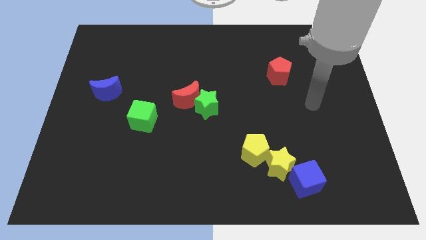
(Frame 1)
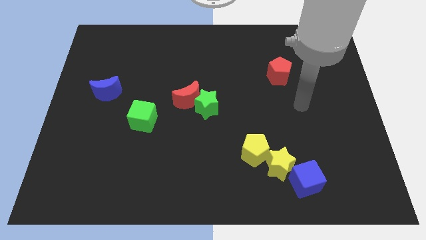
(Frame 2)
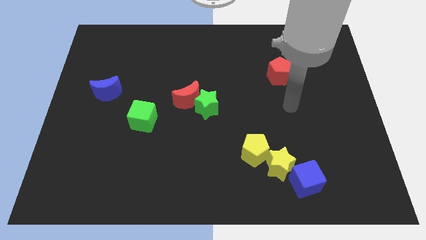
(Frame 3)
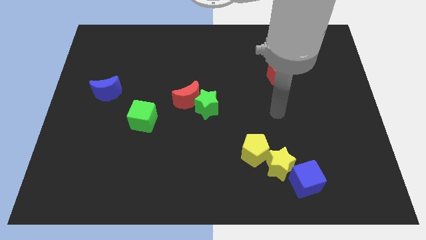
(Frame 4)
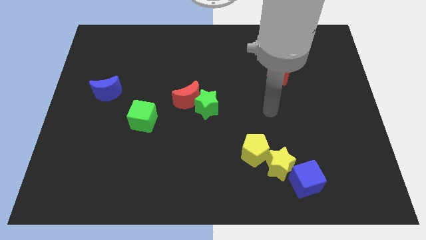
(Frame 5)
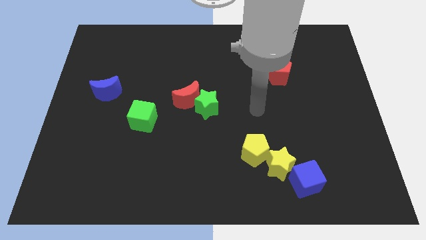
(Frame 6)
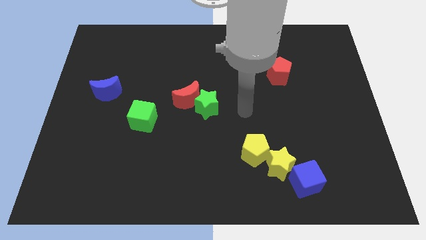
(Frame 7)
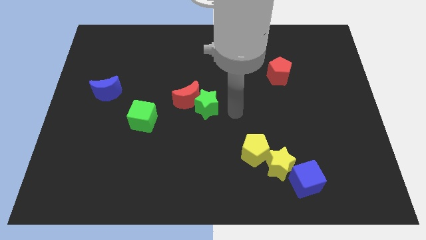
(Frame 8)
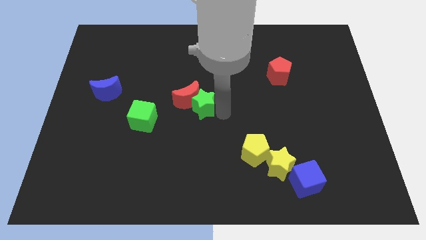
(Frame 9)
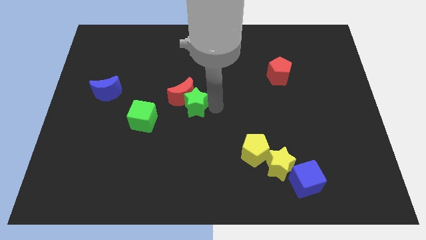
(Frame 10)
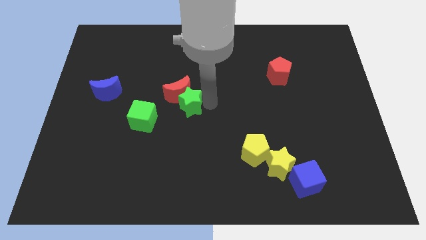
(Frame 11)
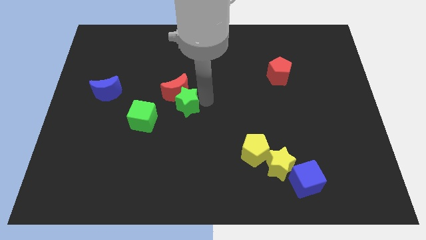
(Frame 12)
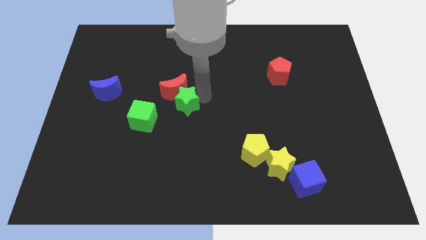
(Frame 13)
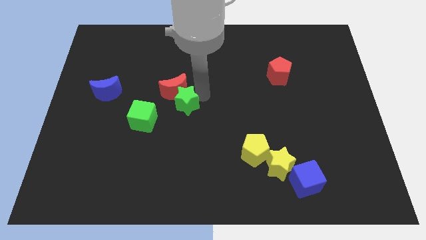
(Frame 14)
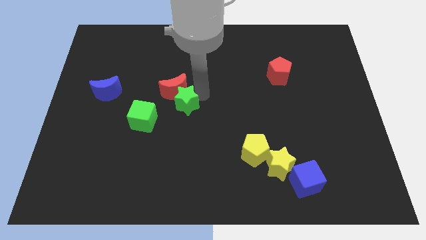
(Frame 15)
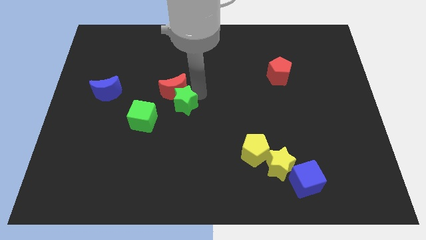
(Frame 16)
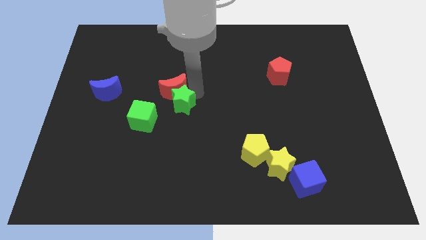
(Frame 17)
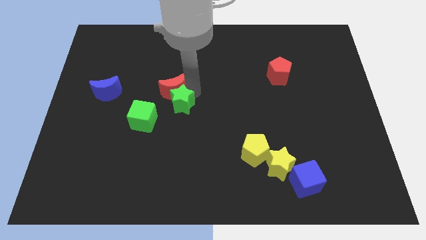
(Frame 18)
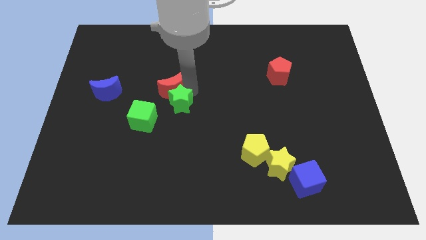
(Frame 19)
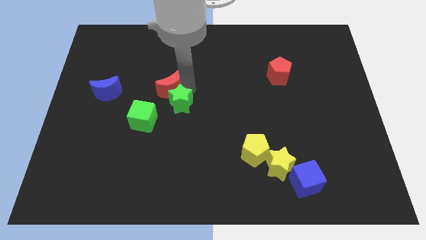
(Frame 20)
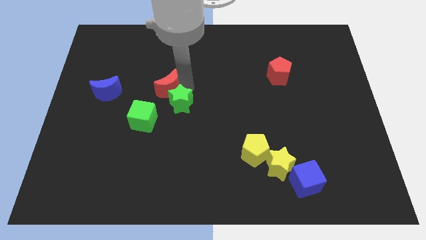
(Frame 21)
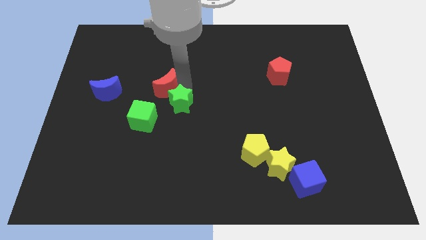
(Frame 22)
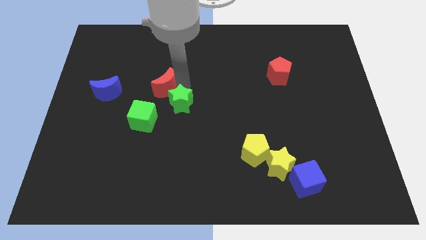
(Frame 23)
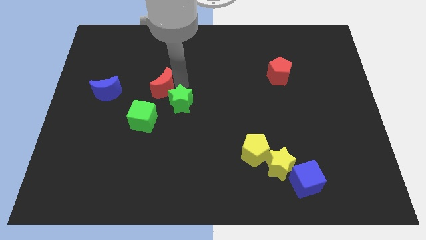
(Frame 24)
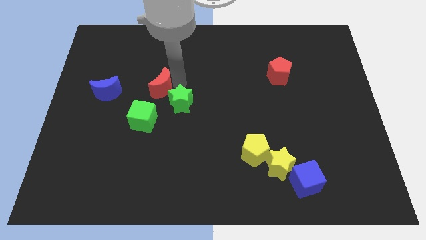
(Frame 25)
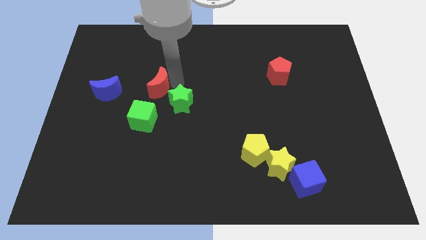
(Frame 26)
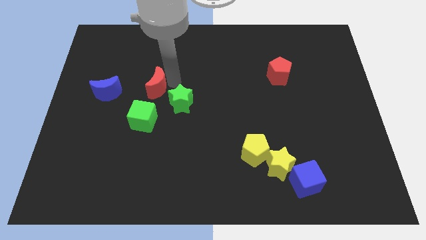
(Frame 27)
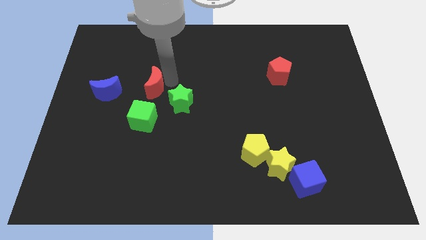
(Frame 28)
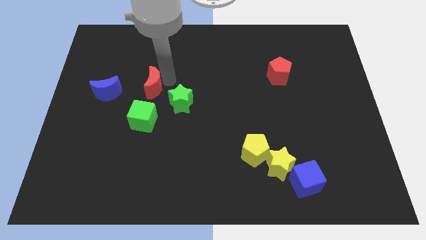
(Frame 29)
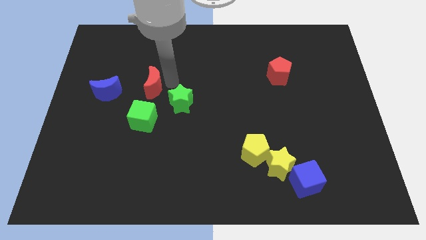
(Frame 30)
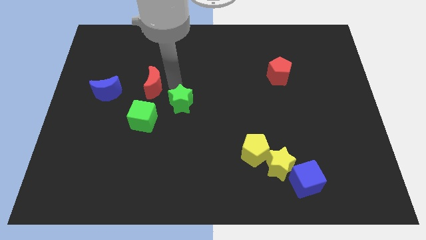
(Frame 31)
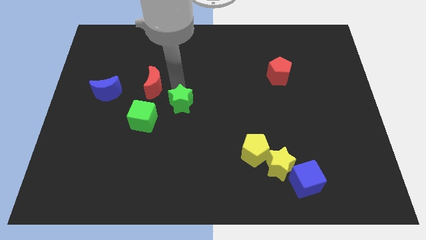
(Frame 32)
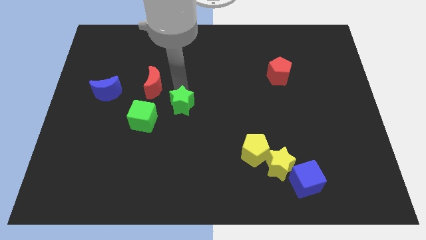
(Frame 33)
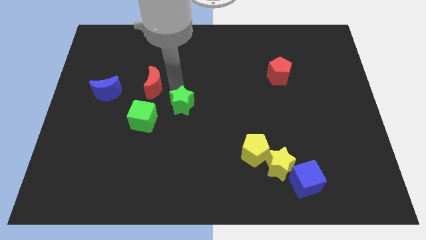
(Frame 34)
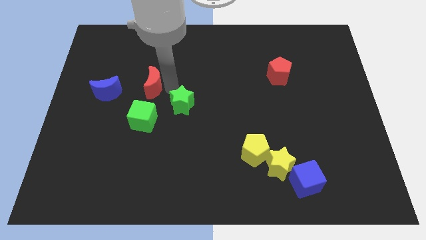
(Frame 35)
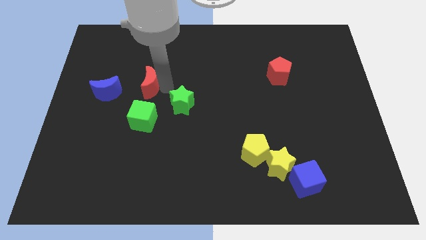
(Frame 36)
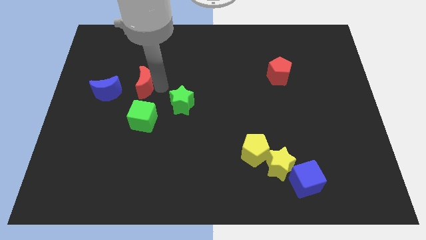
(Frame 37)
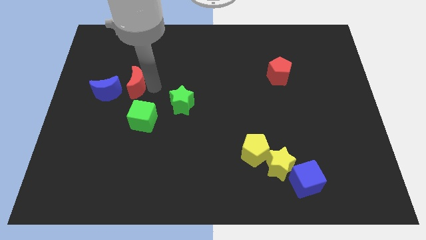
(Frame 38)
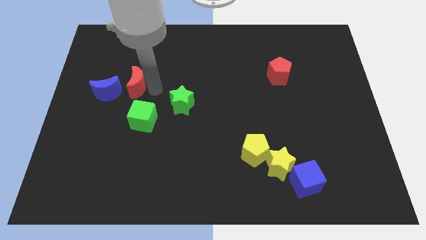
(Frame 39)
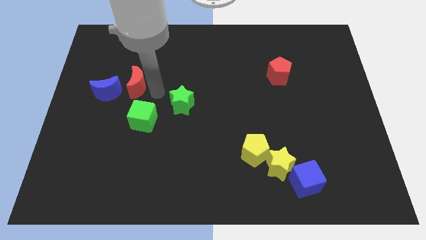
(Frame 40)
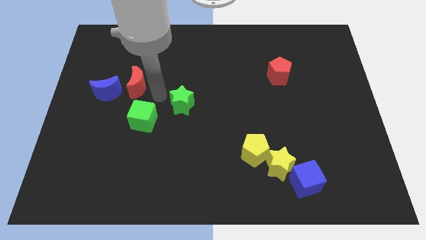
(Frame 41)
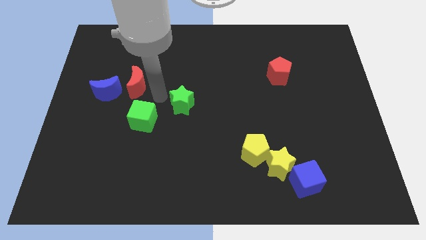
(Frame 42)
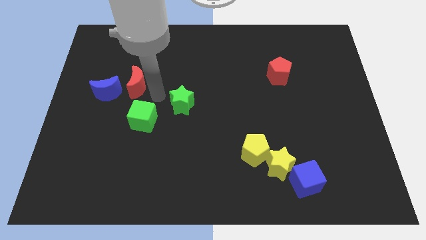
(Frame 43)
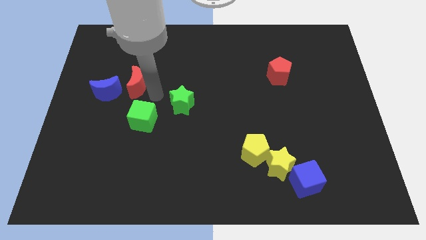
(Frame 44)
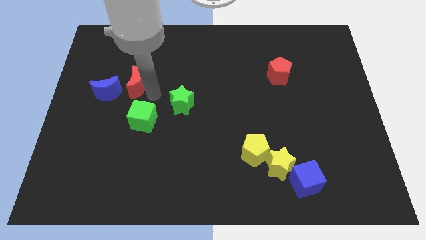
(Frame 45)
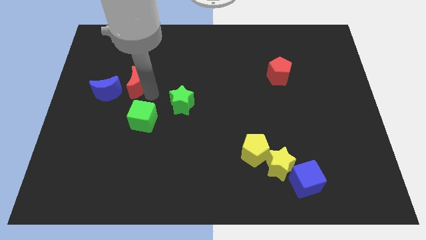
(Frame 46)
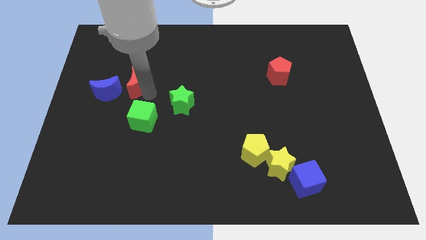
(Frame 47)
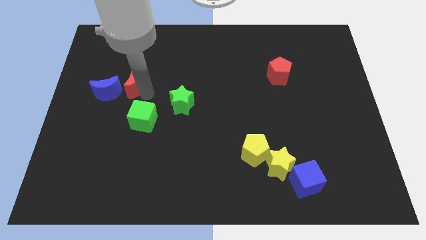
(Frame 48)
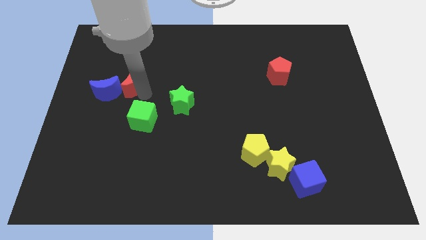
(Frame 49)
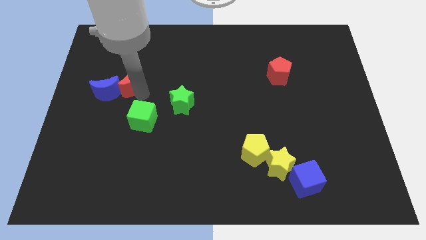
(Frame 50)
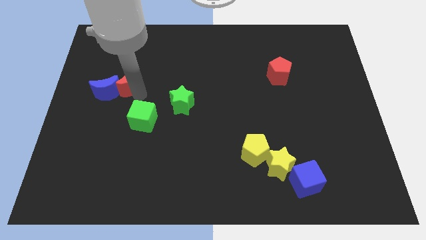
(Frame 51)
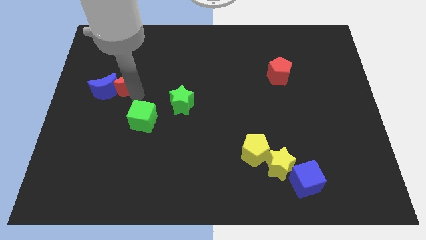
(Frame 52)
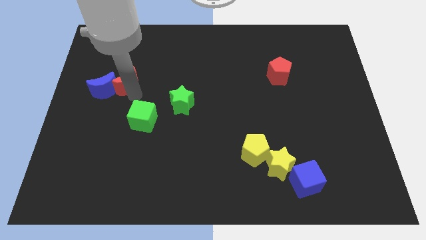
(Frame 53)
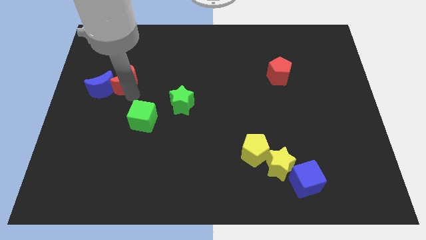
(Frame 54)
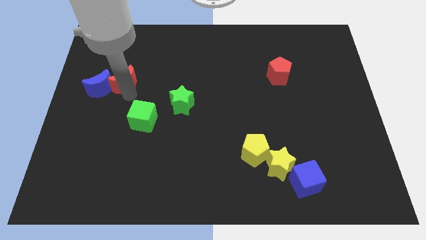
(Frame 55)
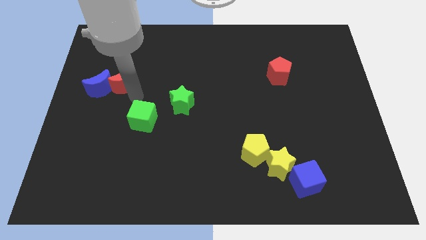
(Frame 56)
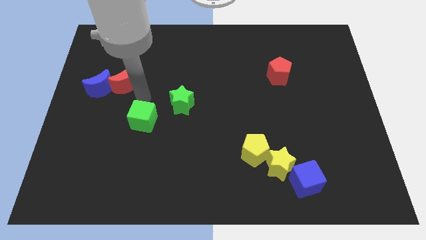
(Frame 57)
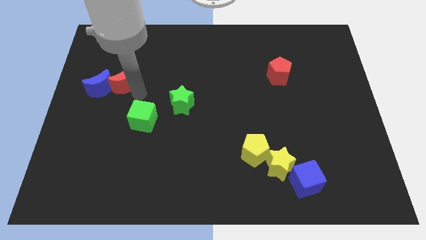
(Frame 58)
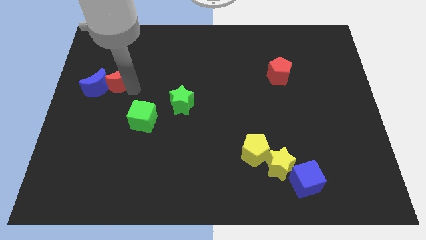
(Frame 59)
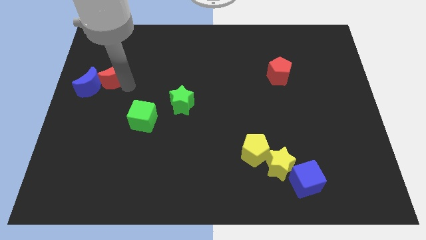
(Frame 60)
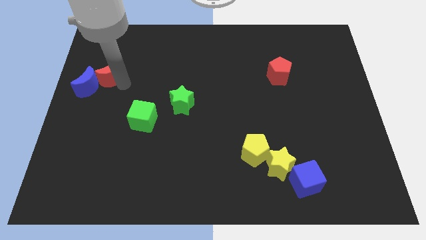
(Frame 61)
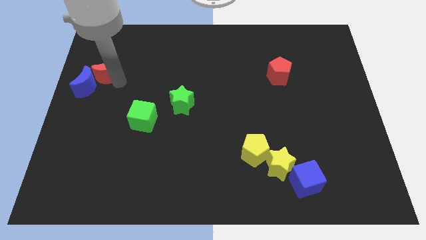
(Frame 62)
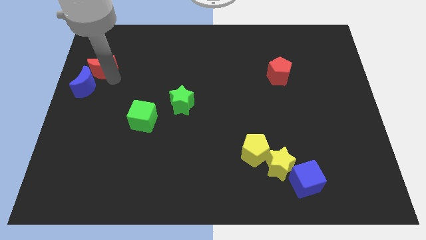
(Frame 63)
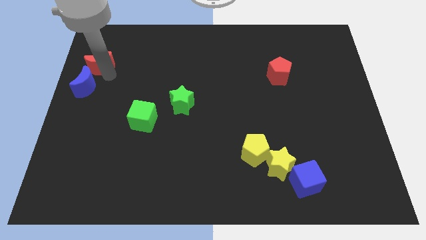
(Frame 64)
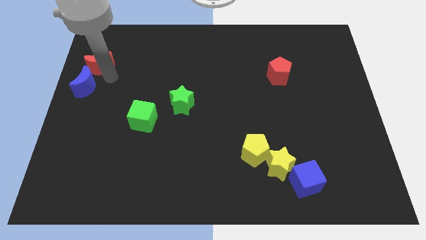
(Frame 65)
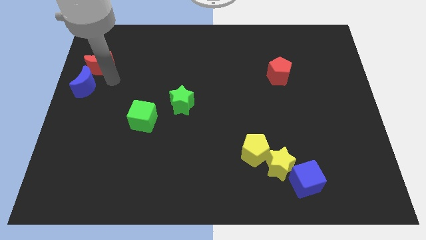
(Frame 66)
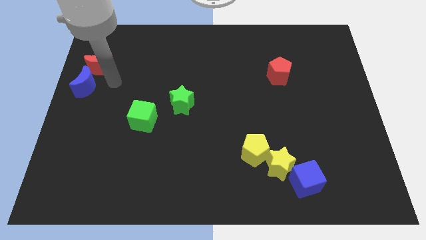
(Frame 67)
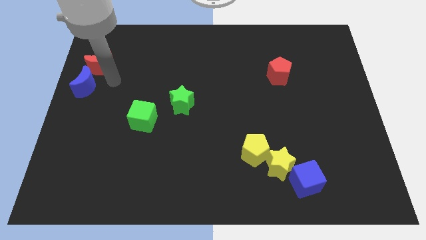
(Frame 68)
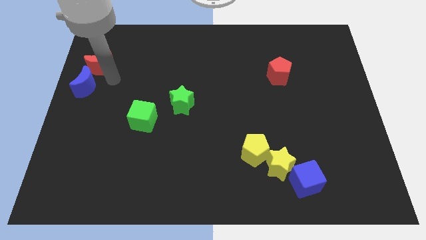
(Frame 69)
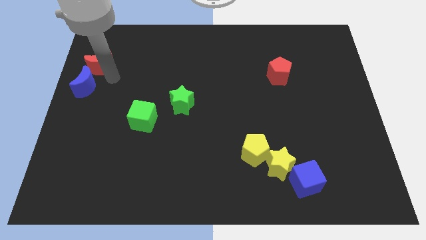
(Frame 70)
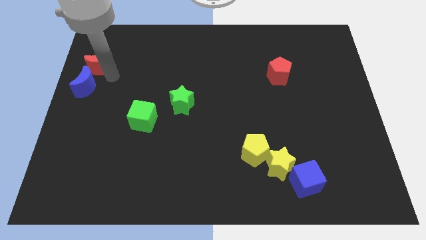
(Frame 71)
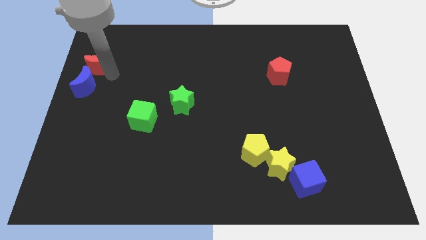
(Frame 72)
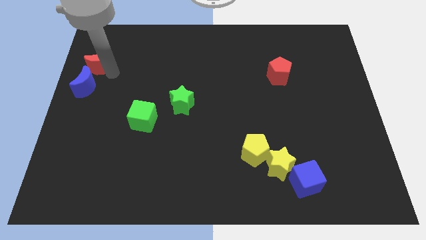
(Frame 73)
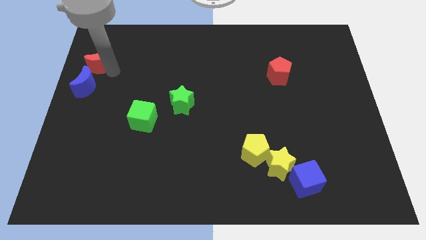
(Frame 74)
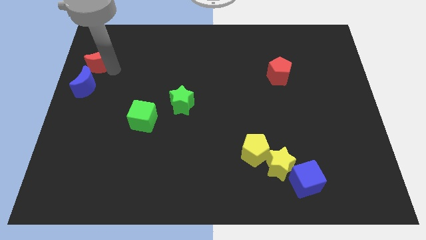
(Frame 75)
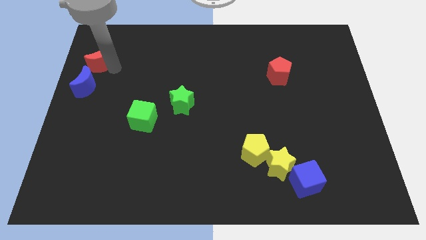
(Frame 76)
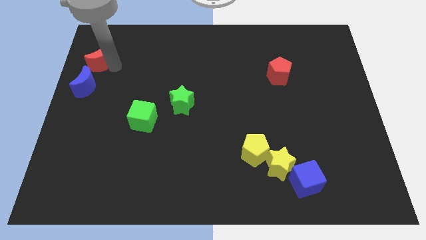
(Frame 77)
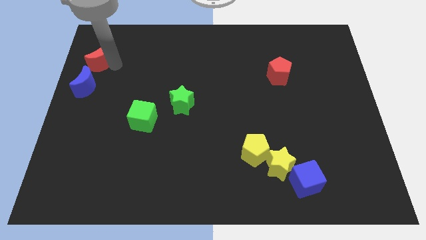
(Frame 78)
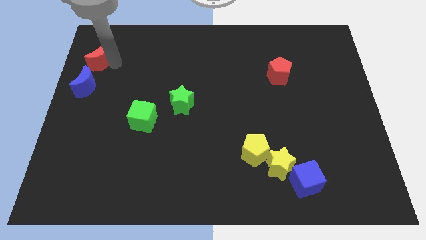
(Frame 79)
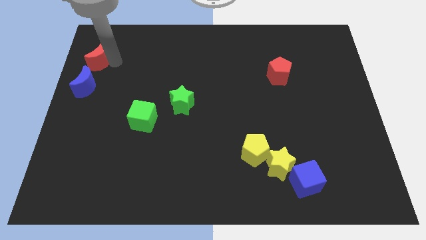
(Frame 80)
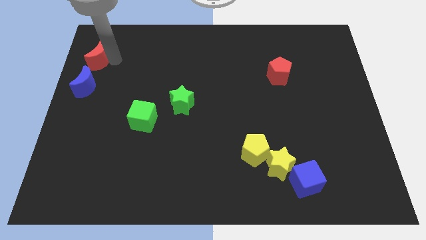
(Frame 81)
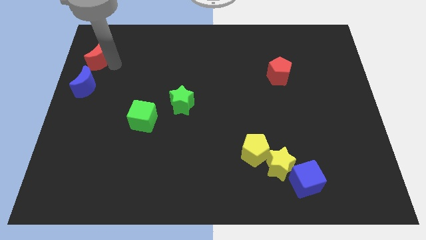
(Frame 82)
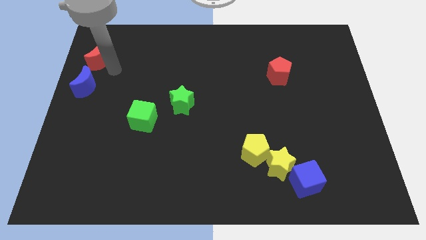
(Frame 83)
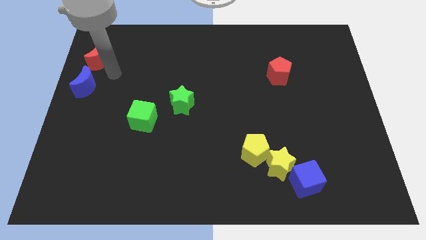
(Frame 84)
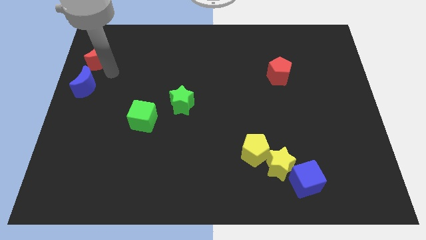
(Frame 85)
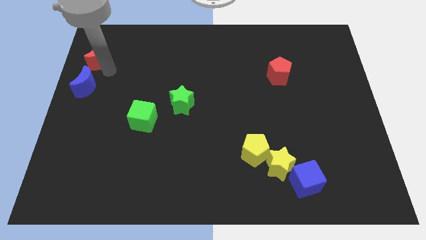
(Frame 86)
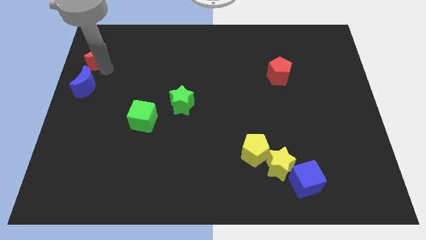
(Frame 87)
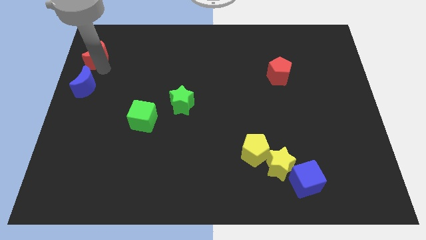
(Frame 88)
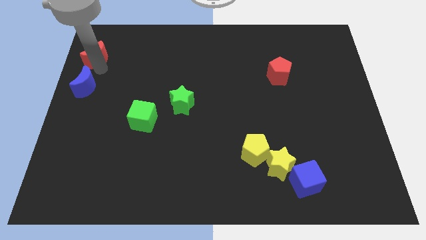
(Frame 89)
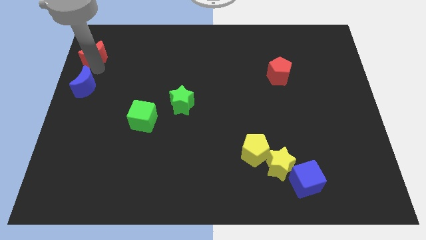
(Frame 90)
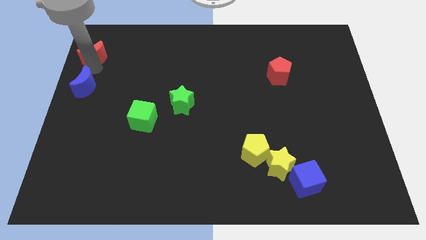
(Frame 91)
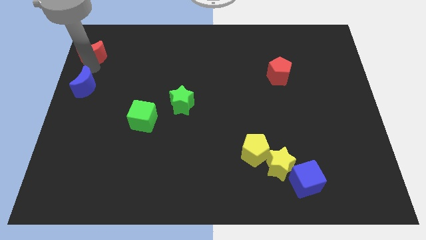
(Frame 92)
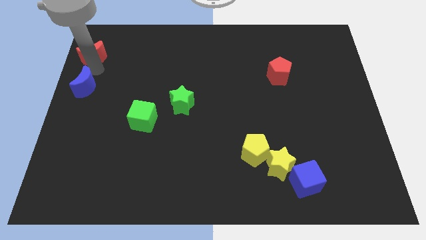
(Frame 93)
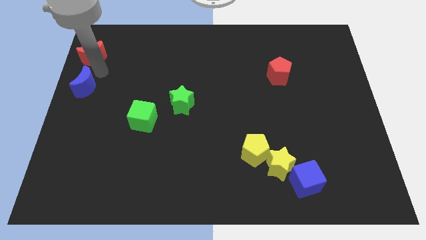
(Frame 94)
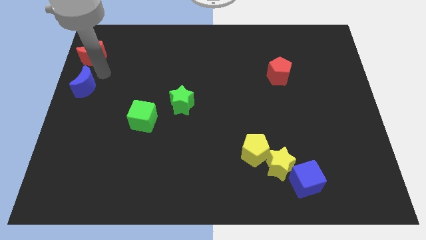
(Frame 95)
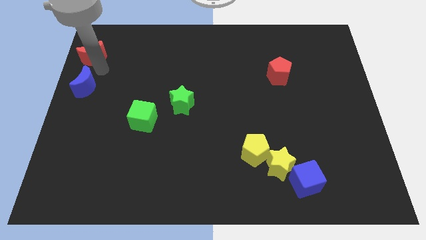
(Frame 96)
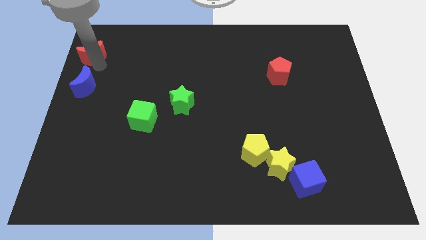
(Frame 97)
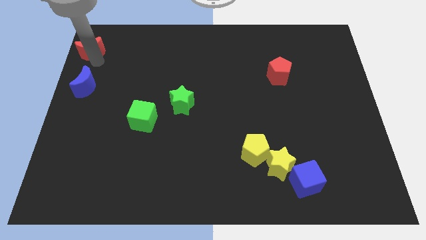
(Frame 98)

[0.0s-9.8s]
slide the red moon to the top left
